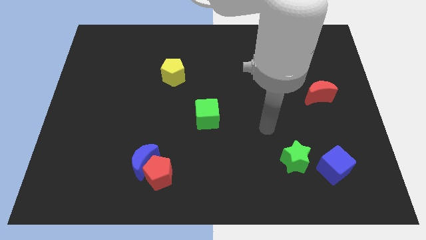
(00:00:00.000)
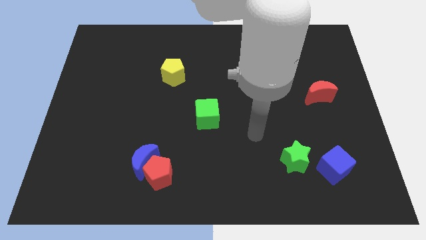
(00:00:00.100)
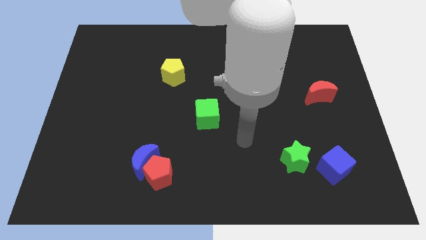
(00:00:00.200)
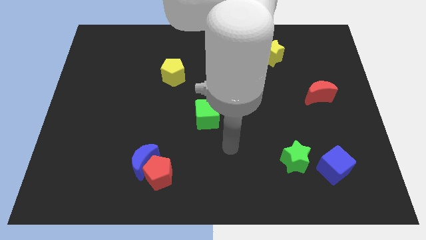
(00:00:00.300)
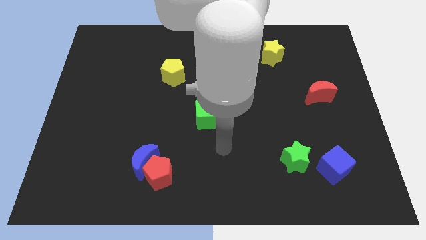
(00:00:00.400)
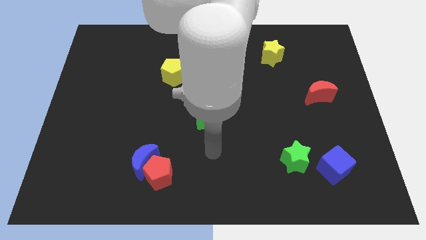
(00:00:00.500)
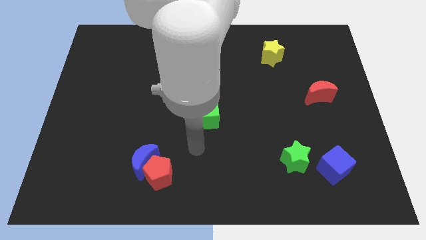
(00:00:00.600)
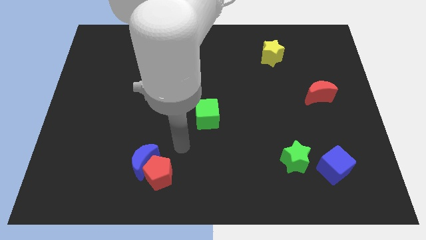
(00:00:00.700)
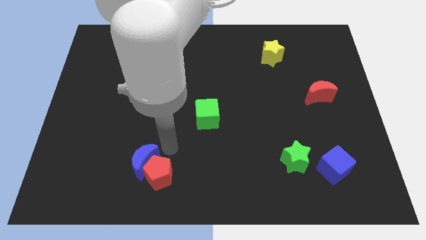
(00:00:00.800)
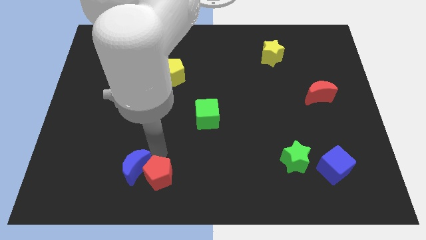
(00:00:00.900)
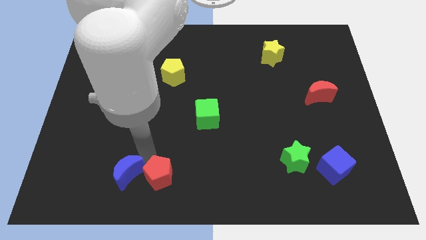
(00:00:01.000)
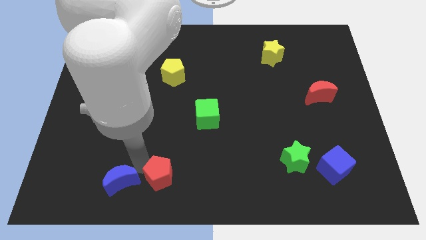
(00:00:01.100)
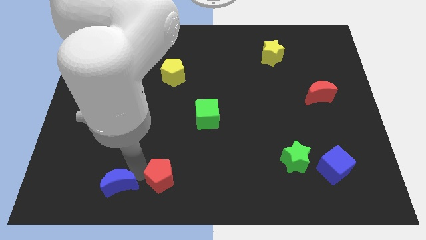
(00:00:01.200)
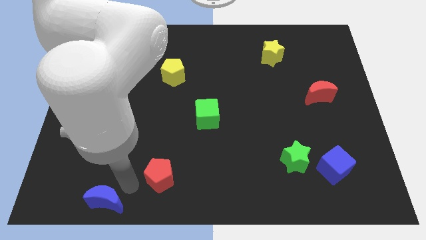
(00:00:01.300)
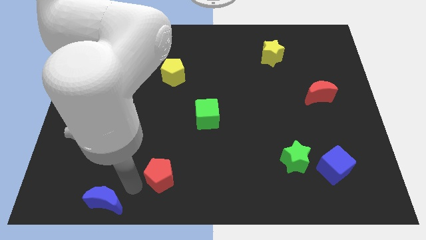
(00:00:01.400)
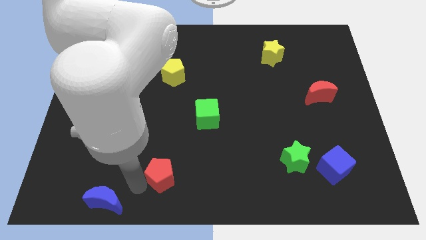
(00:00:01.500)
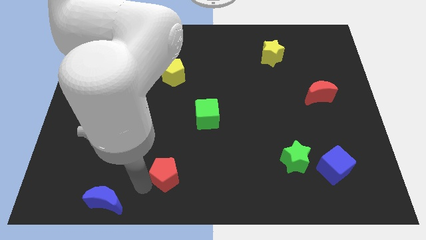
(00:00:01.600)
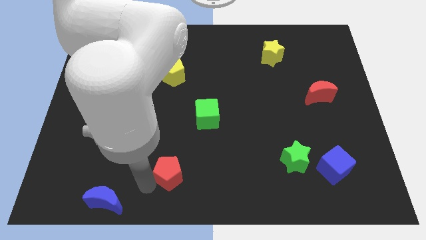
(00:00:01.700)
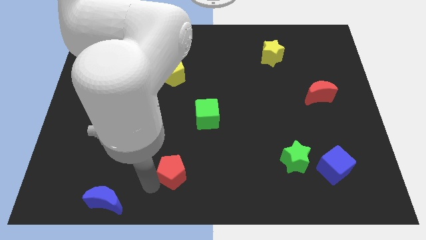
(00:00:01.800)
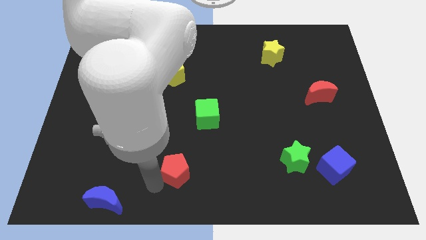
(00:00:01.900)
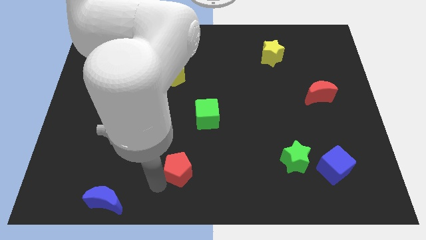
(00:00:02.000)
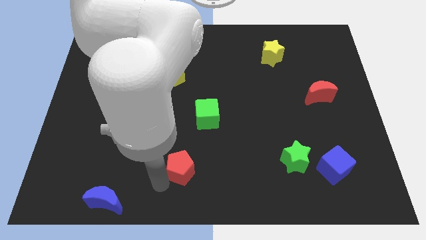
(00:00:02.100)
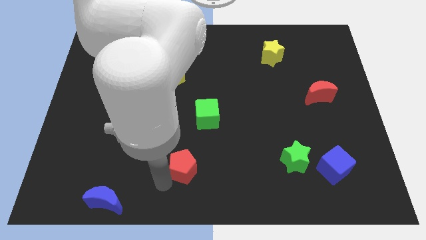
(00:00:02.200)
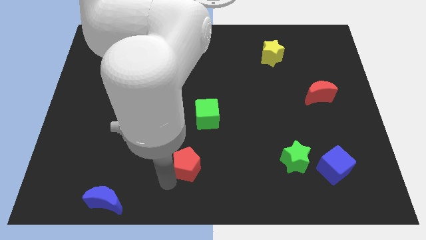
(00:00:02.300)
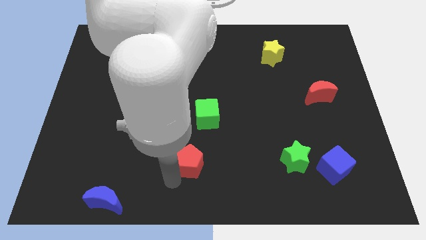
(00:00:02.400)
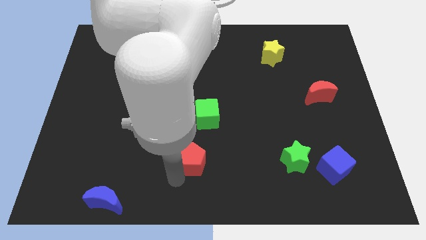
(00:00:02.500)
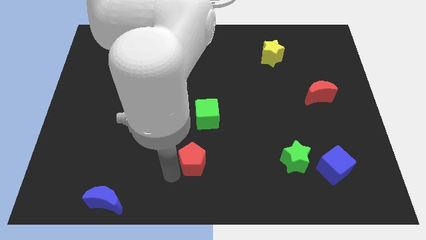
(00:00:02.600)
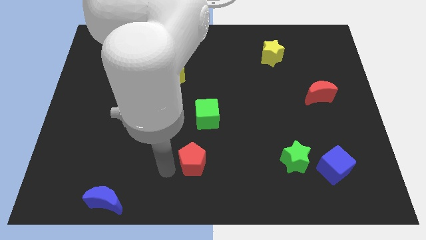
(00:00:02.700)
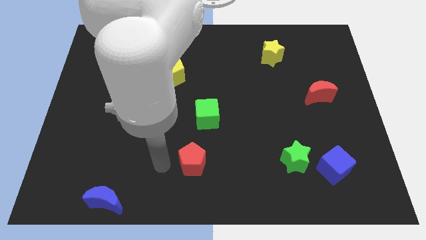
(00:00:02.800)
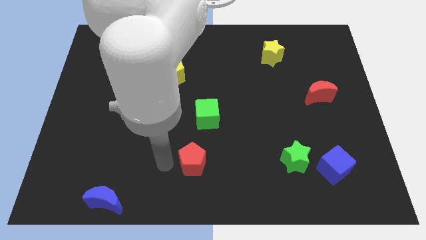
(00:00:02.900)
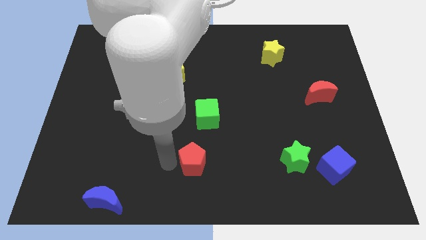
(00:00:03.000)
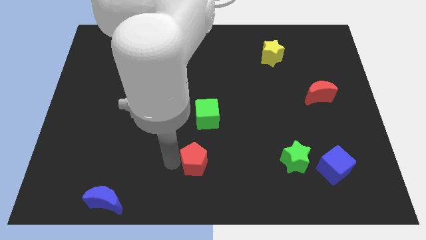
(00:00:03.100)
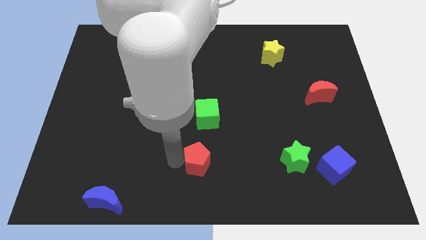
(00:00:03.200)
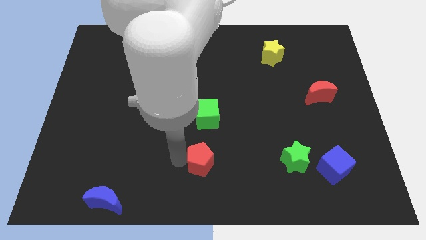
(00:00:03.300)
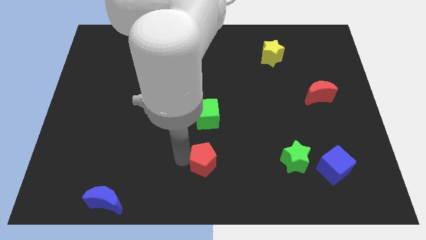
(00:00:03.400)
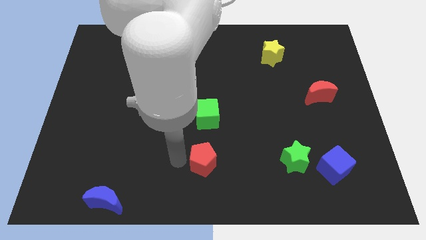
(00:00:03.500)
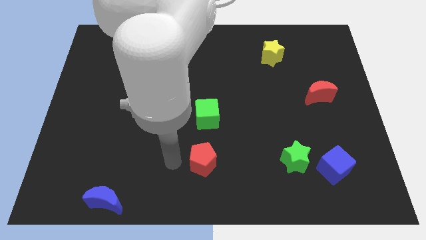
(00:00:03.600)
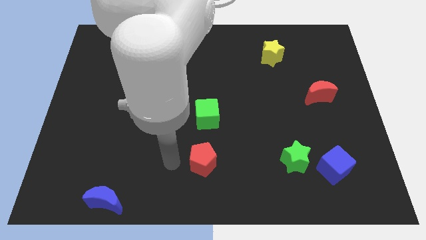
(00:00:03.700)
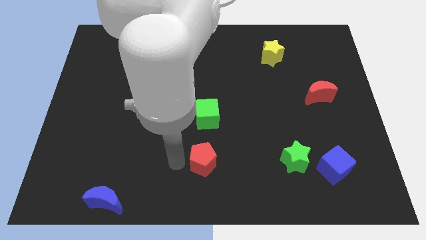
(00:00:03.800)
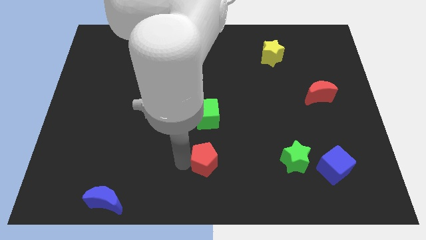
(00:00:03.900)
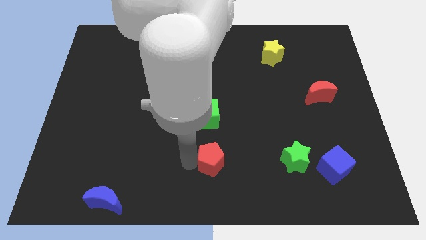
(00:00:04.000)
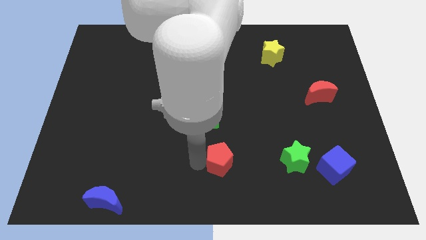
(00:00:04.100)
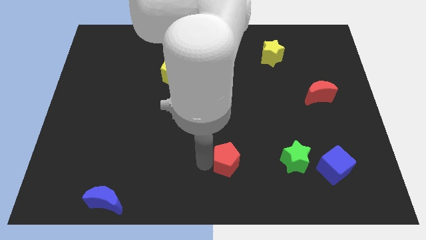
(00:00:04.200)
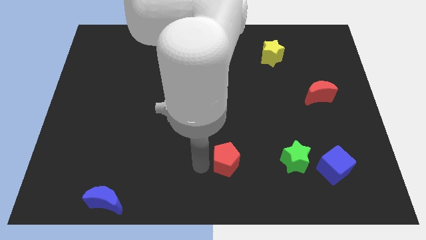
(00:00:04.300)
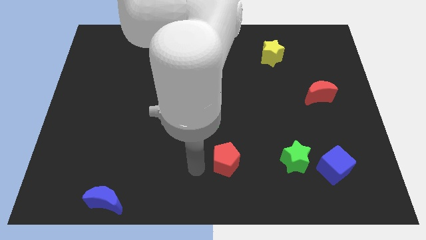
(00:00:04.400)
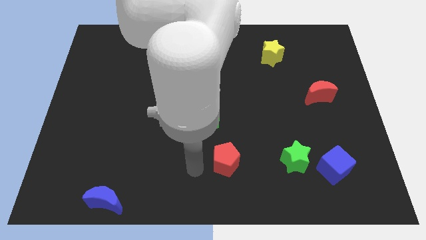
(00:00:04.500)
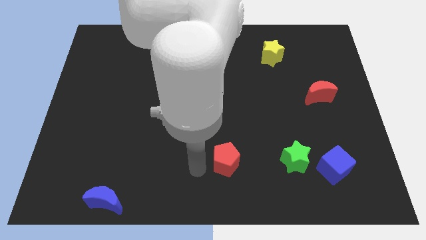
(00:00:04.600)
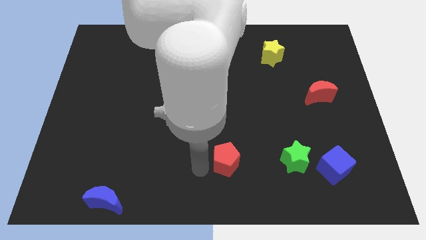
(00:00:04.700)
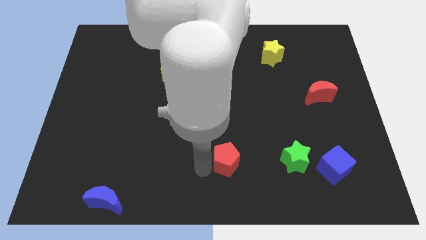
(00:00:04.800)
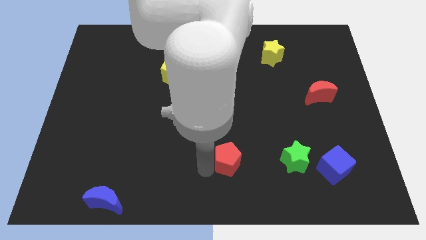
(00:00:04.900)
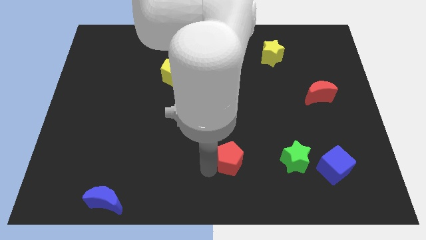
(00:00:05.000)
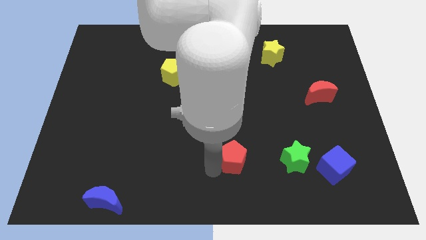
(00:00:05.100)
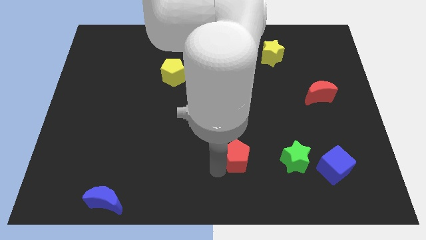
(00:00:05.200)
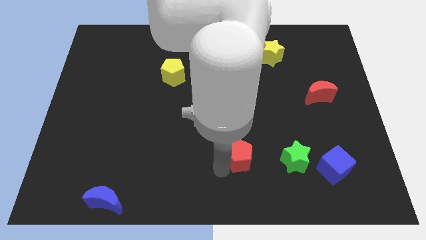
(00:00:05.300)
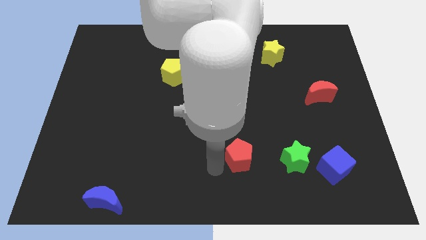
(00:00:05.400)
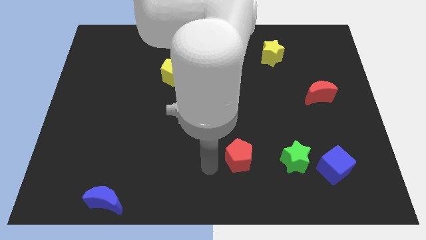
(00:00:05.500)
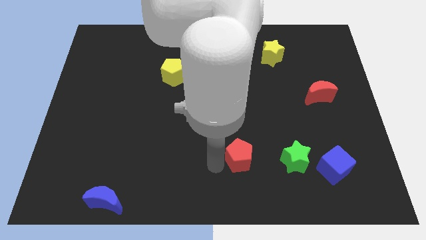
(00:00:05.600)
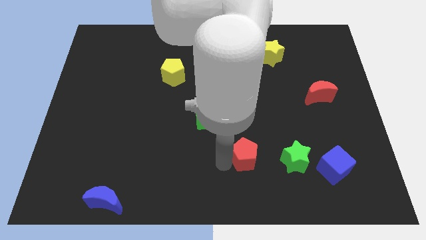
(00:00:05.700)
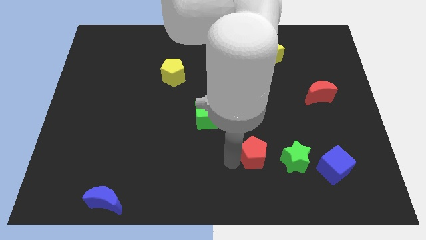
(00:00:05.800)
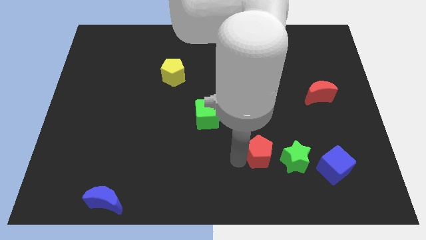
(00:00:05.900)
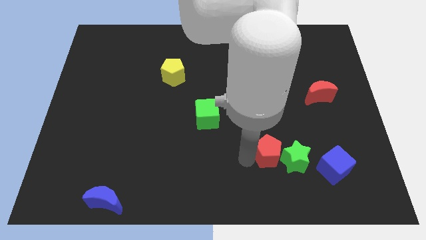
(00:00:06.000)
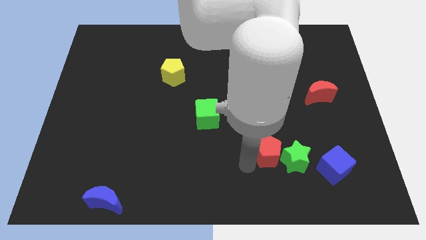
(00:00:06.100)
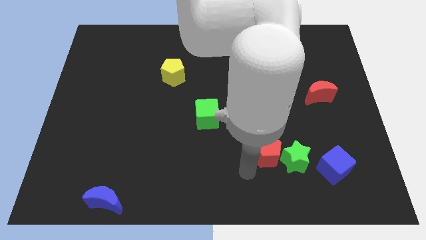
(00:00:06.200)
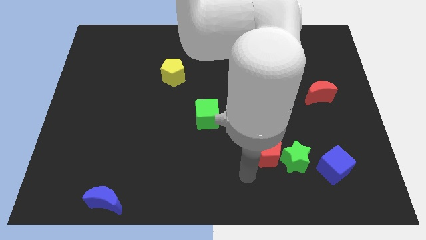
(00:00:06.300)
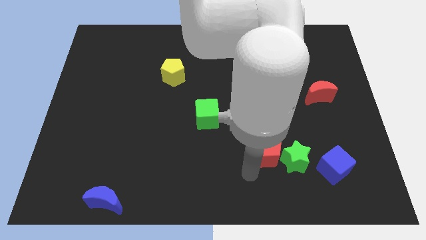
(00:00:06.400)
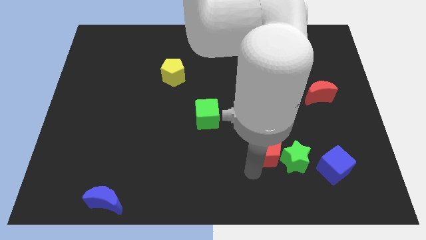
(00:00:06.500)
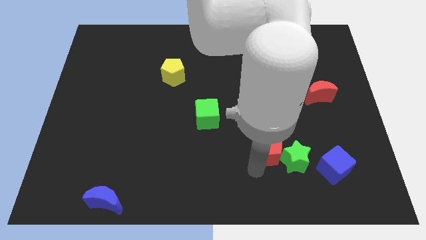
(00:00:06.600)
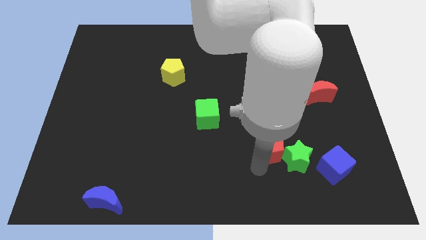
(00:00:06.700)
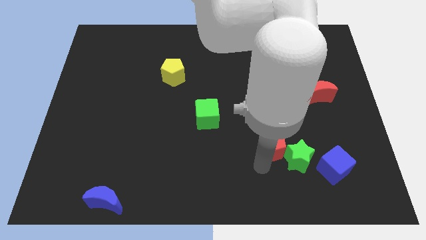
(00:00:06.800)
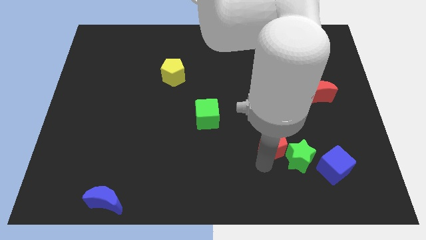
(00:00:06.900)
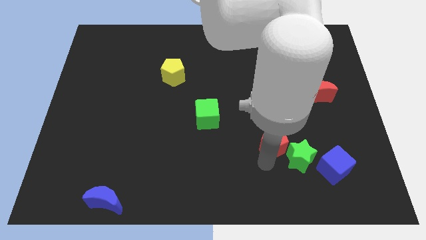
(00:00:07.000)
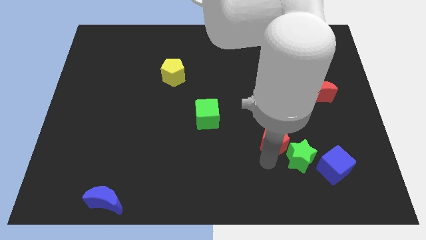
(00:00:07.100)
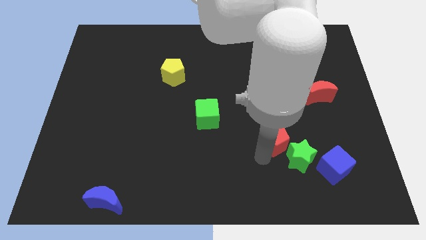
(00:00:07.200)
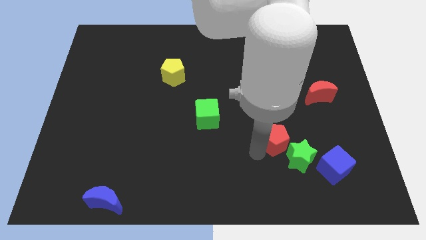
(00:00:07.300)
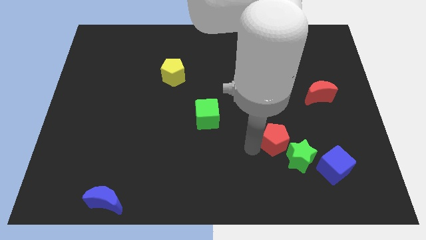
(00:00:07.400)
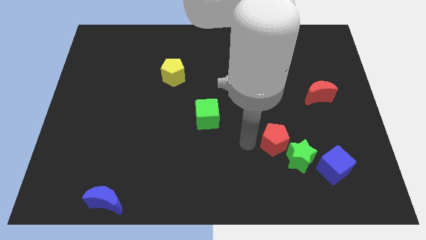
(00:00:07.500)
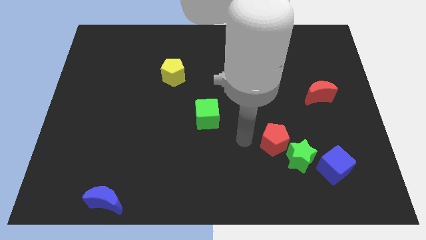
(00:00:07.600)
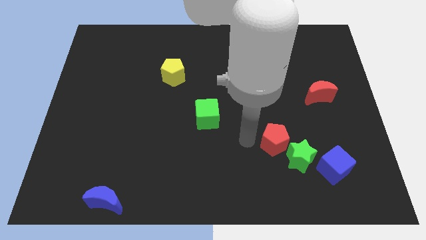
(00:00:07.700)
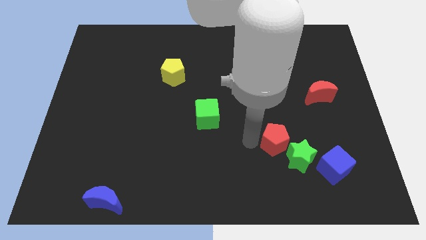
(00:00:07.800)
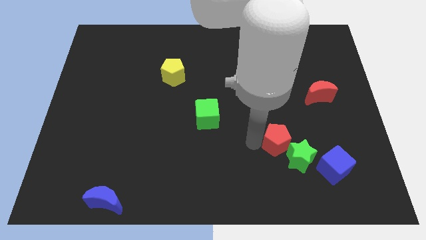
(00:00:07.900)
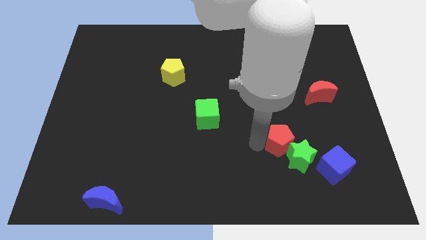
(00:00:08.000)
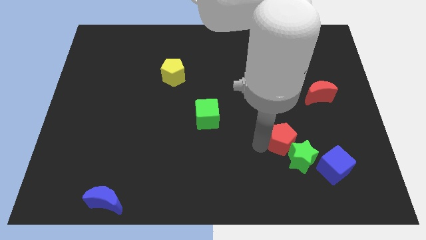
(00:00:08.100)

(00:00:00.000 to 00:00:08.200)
slide the red pentagon diagonally up and to the left of the blue cube
